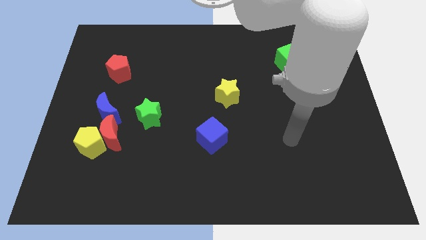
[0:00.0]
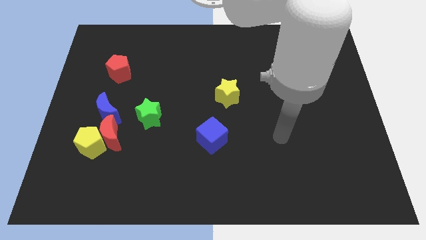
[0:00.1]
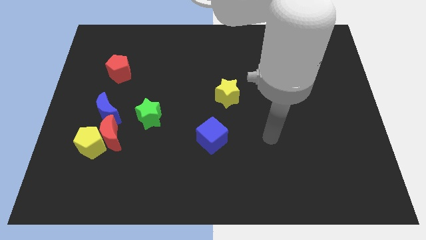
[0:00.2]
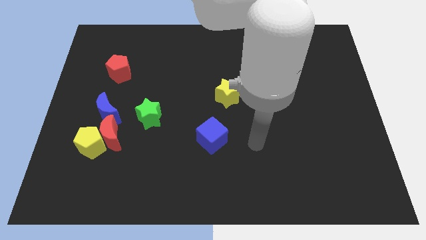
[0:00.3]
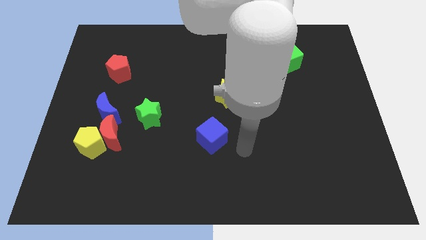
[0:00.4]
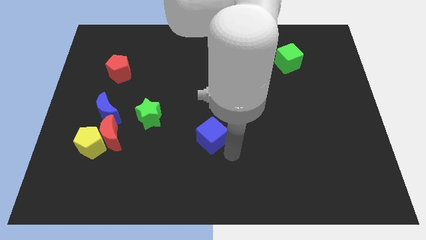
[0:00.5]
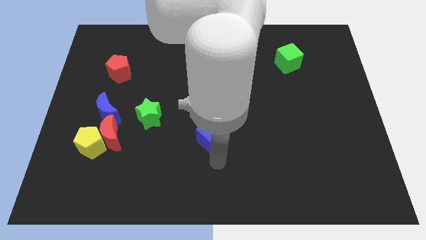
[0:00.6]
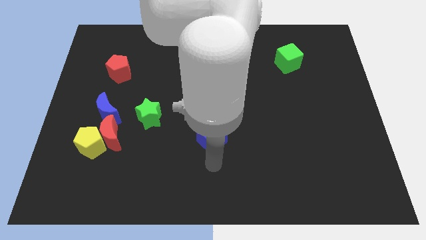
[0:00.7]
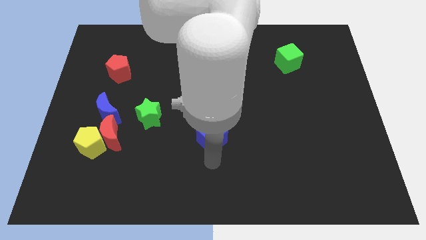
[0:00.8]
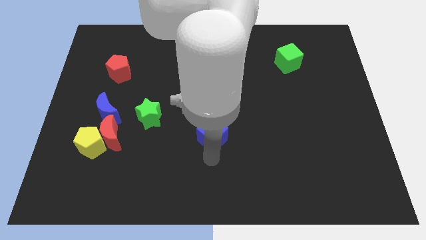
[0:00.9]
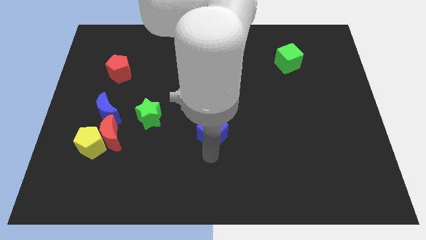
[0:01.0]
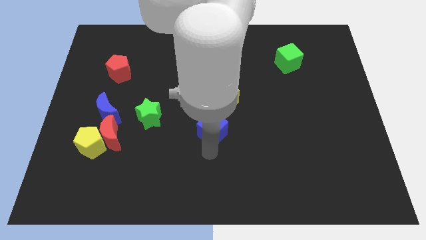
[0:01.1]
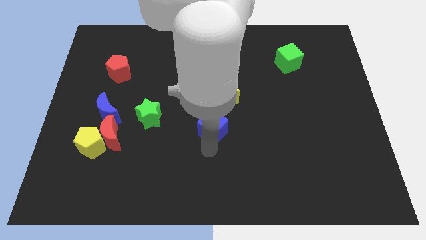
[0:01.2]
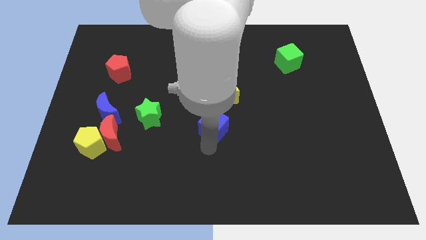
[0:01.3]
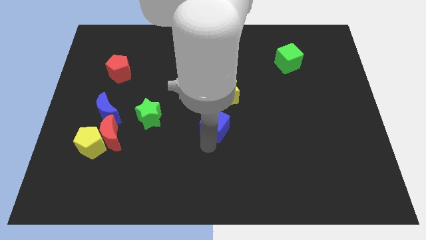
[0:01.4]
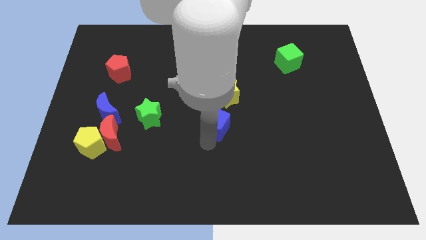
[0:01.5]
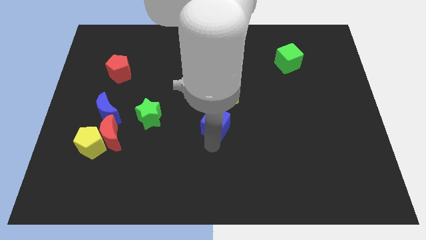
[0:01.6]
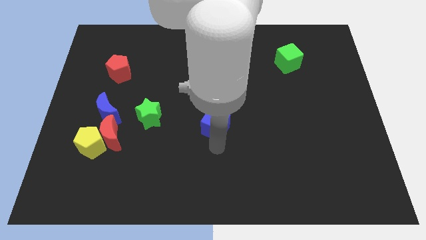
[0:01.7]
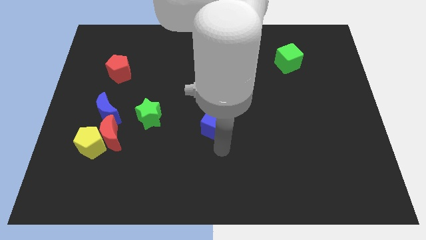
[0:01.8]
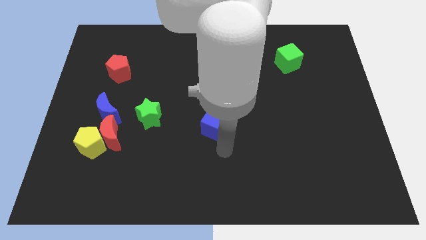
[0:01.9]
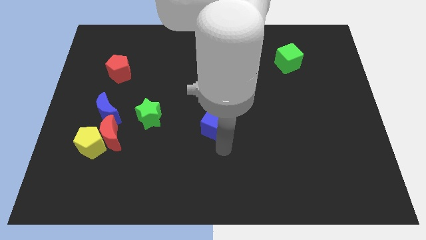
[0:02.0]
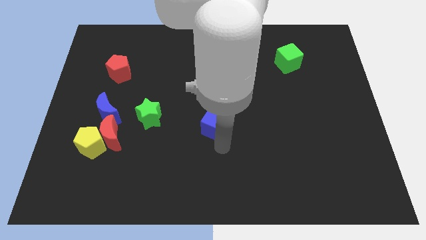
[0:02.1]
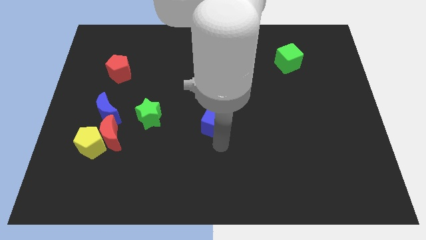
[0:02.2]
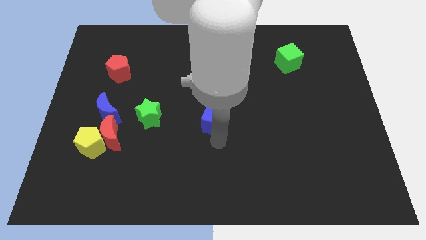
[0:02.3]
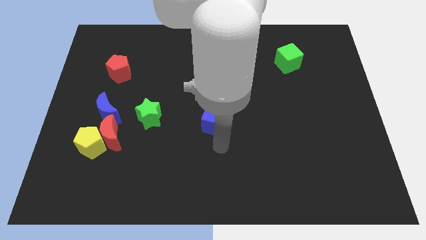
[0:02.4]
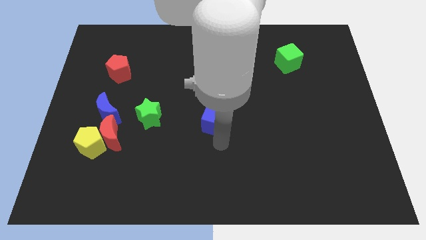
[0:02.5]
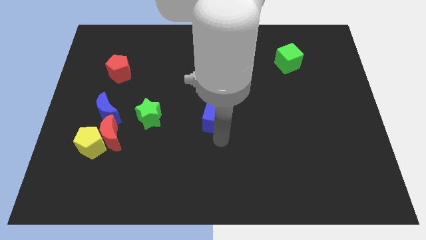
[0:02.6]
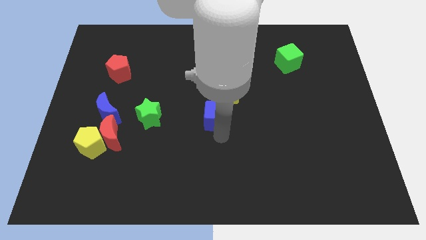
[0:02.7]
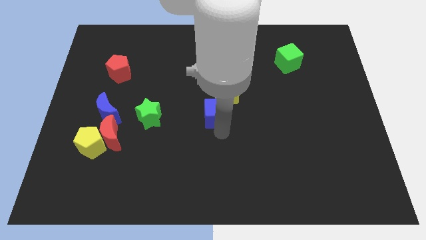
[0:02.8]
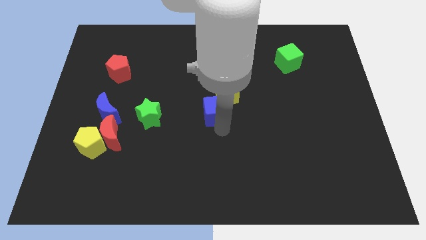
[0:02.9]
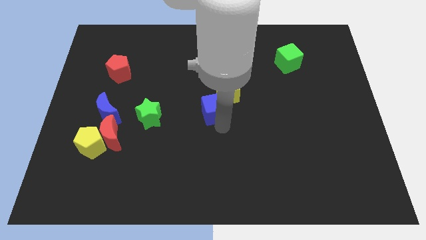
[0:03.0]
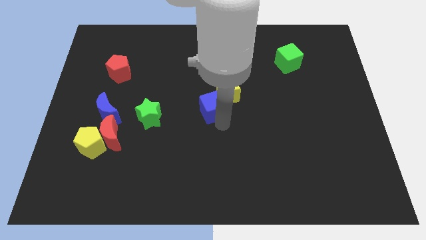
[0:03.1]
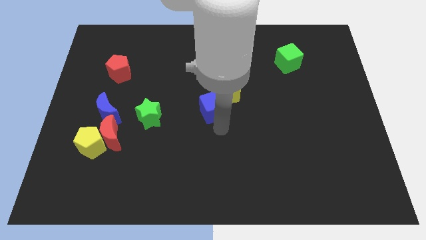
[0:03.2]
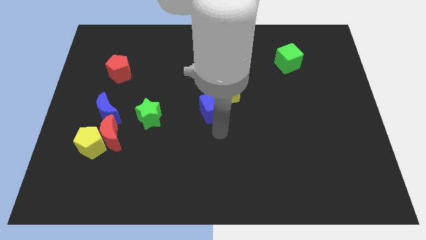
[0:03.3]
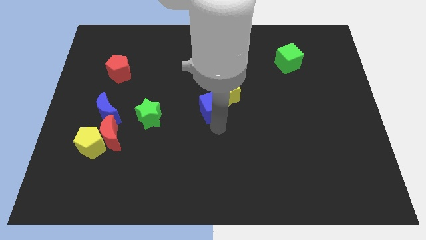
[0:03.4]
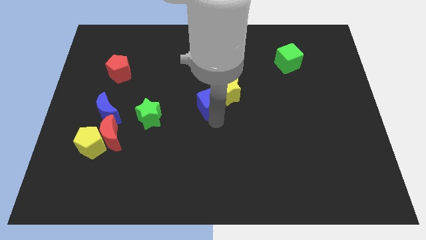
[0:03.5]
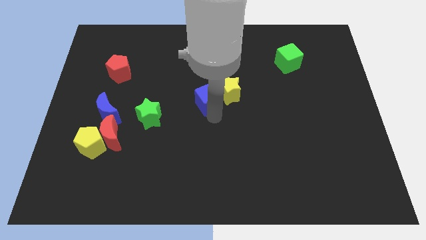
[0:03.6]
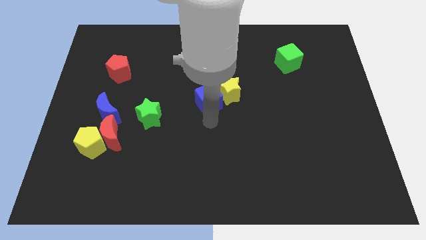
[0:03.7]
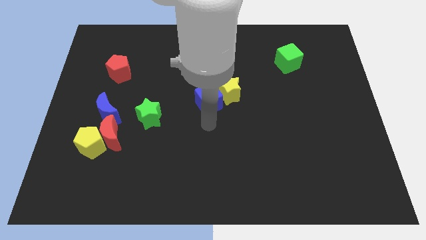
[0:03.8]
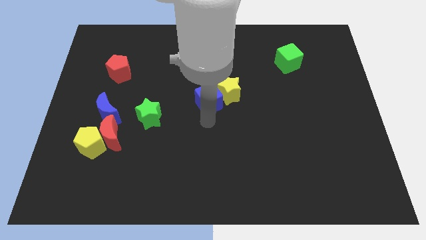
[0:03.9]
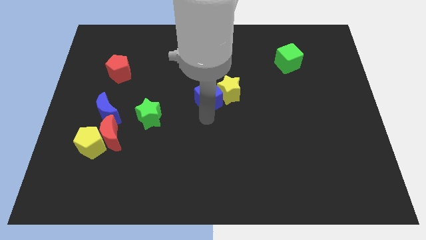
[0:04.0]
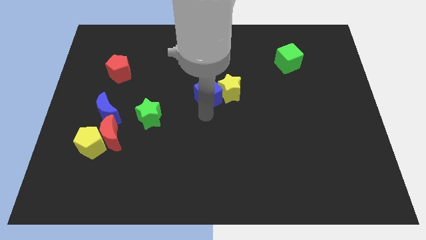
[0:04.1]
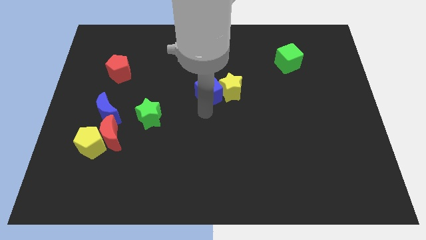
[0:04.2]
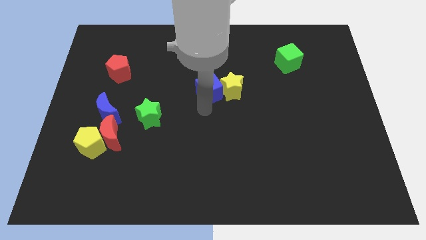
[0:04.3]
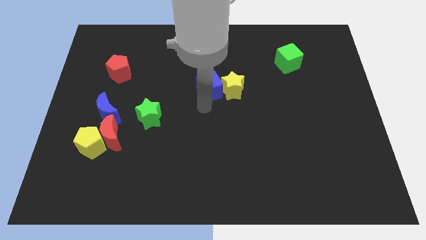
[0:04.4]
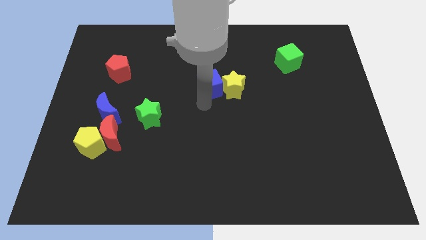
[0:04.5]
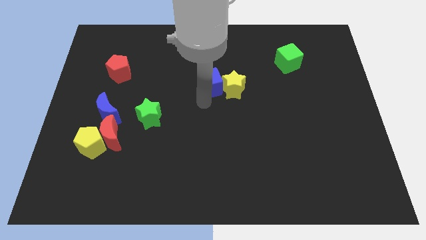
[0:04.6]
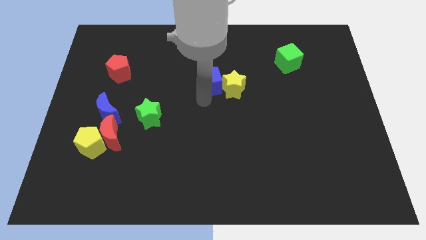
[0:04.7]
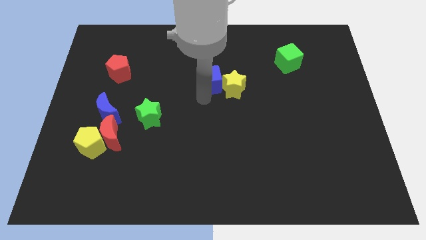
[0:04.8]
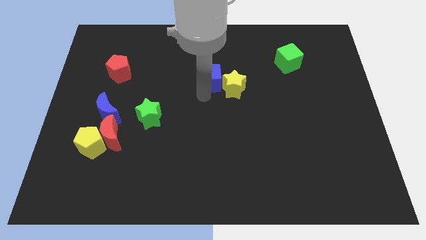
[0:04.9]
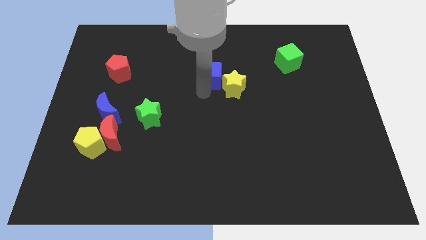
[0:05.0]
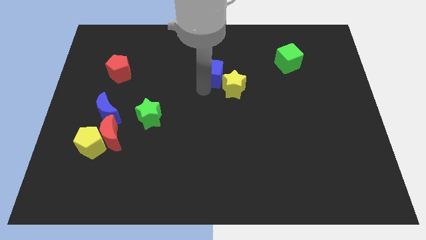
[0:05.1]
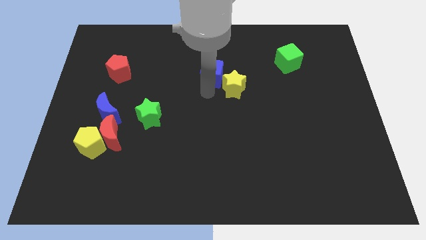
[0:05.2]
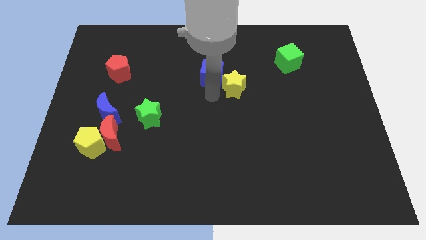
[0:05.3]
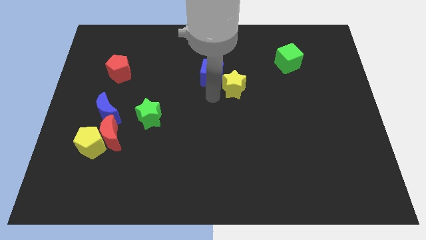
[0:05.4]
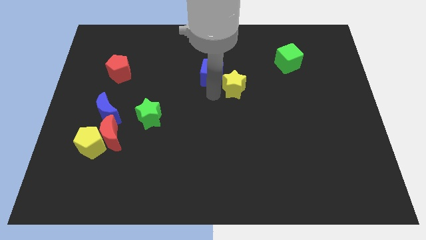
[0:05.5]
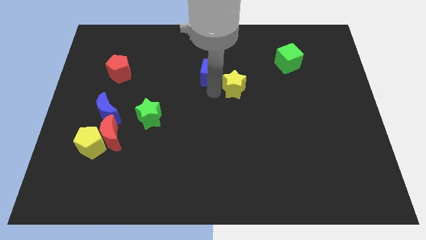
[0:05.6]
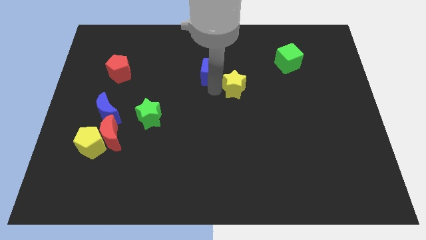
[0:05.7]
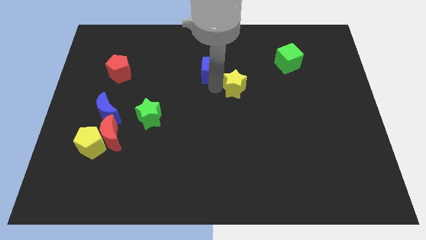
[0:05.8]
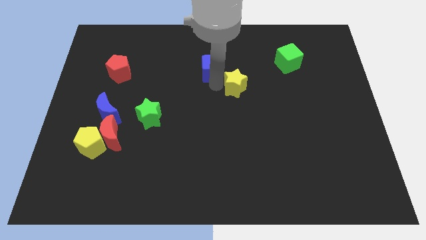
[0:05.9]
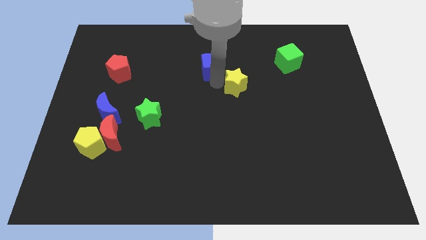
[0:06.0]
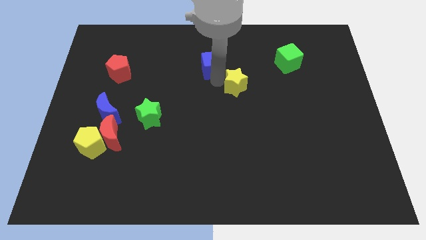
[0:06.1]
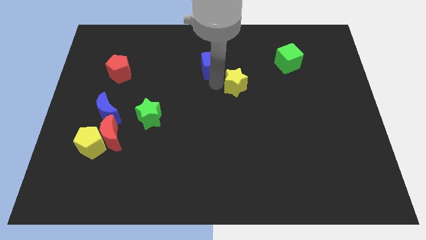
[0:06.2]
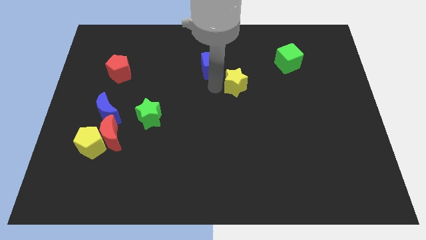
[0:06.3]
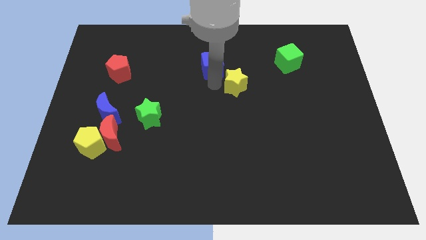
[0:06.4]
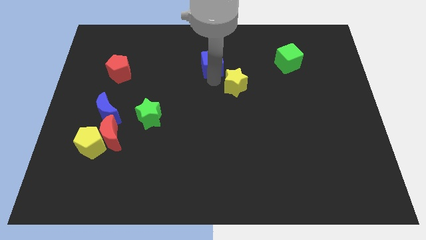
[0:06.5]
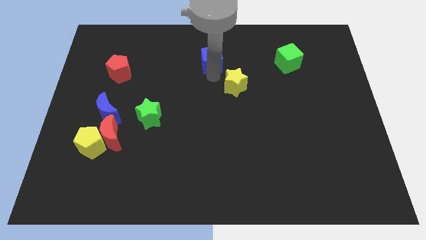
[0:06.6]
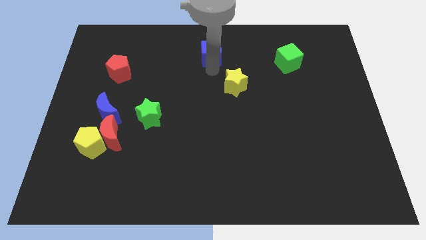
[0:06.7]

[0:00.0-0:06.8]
slide the blue cube to the top
